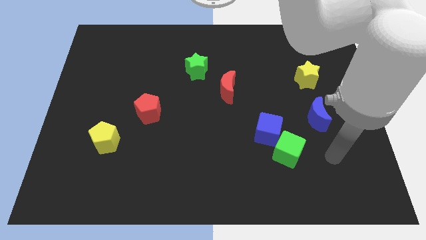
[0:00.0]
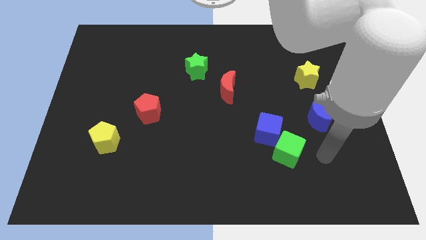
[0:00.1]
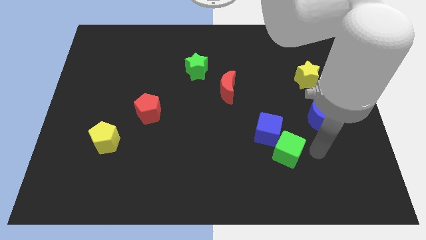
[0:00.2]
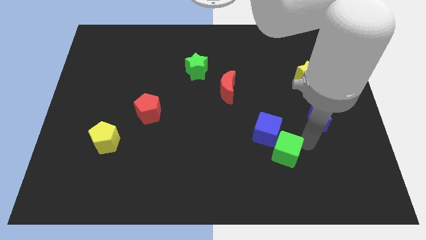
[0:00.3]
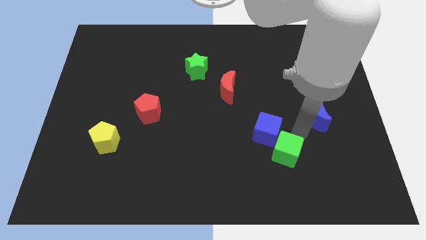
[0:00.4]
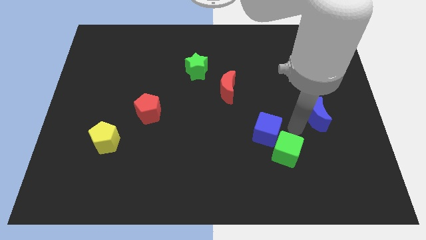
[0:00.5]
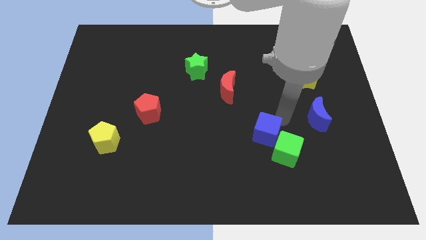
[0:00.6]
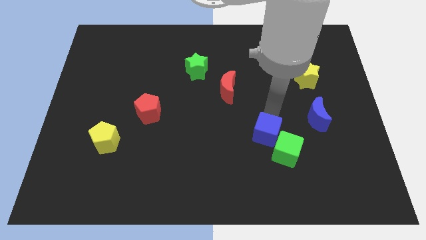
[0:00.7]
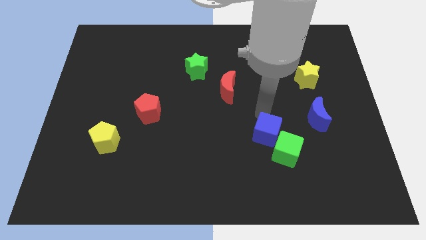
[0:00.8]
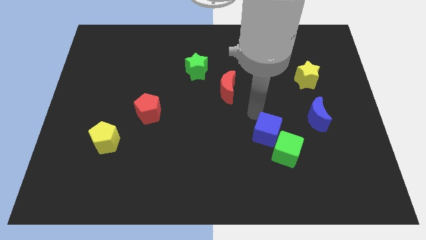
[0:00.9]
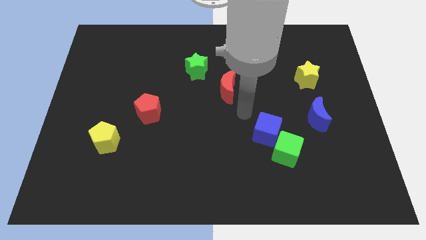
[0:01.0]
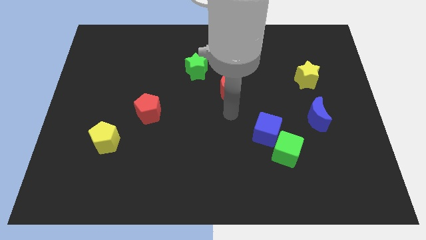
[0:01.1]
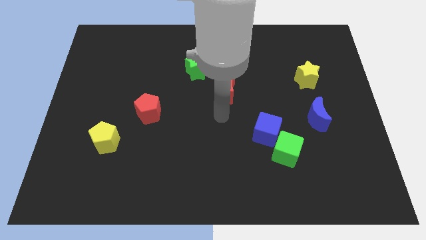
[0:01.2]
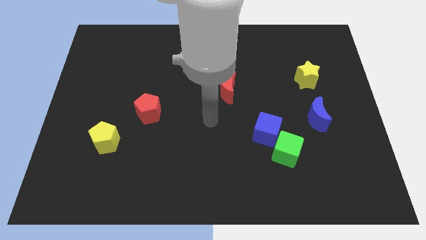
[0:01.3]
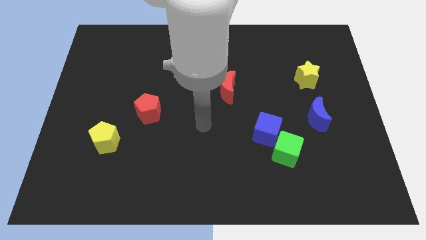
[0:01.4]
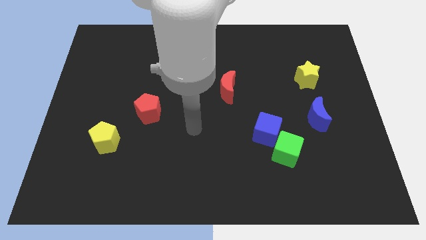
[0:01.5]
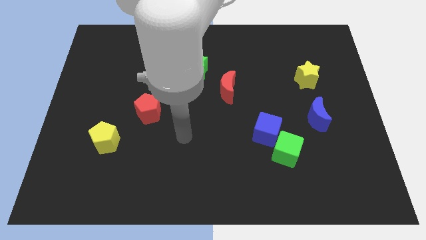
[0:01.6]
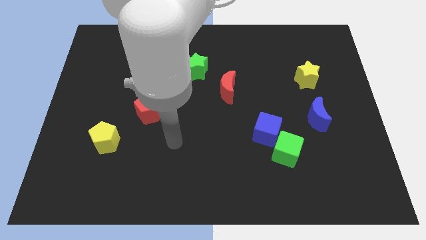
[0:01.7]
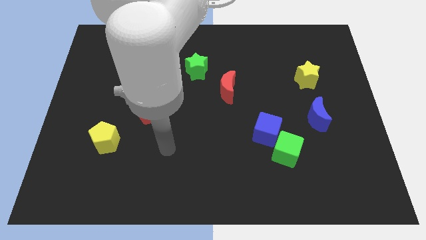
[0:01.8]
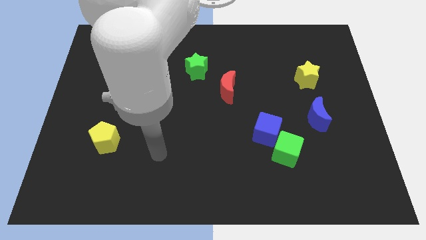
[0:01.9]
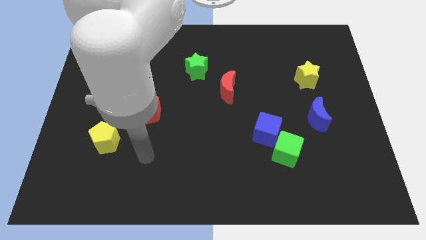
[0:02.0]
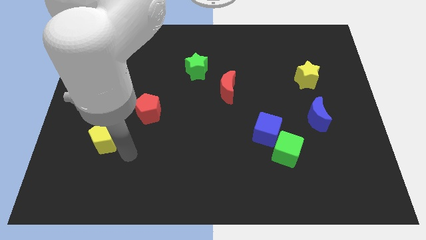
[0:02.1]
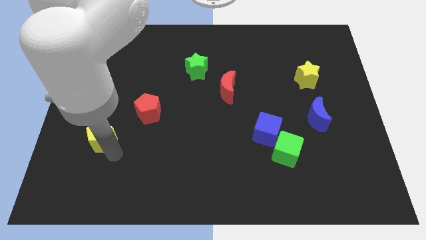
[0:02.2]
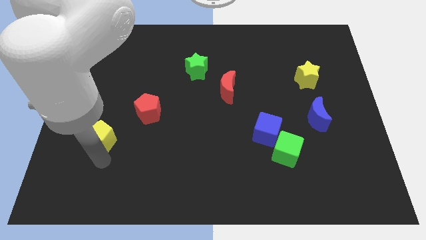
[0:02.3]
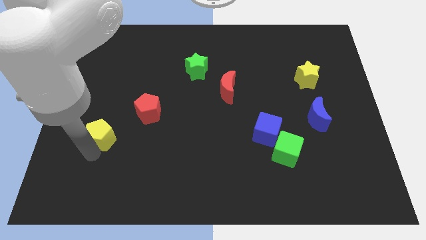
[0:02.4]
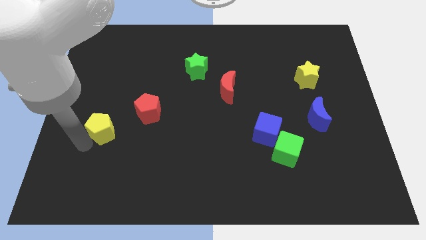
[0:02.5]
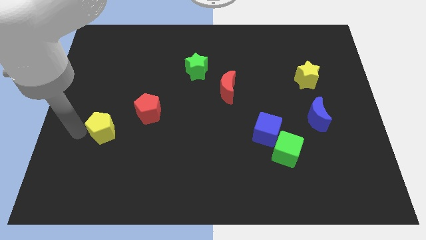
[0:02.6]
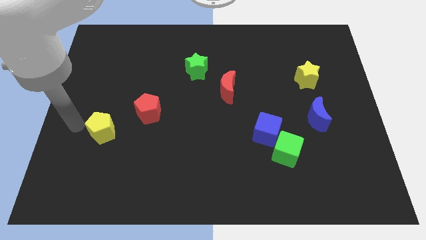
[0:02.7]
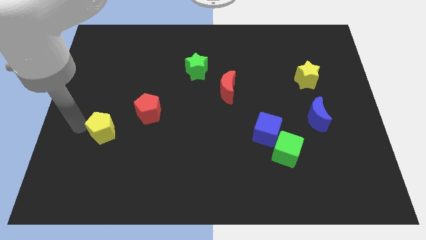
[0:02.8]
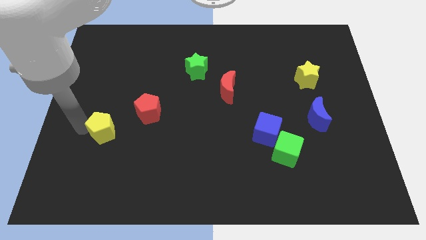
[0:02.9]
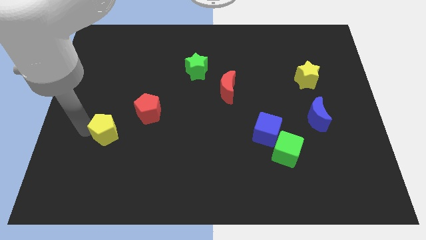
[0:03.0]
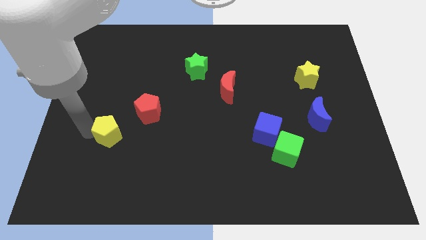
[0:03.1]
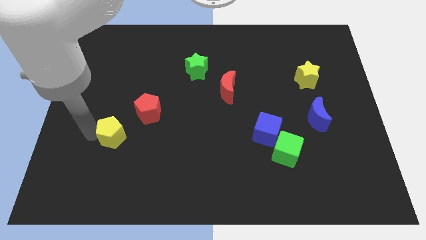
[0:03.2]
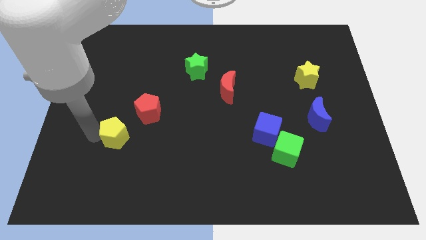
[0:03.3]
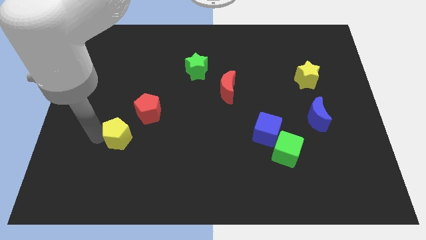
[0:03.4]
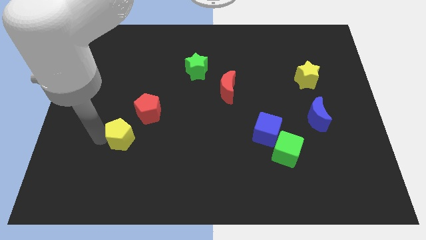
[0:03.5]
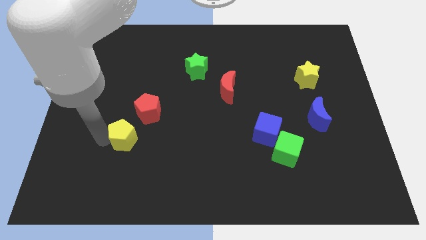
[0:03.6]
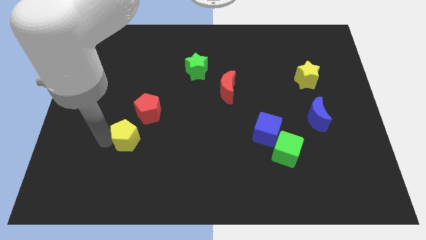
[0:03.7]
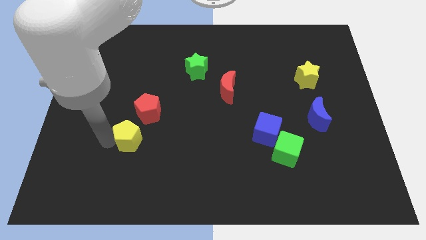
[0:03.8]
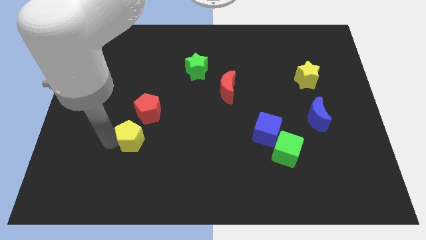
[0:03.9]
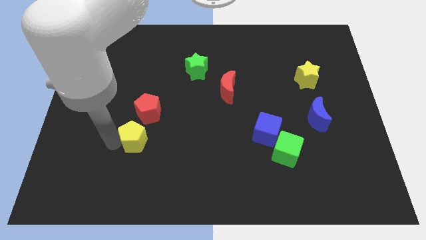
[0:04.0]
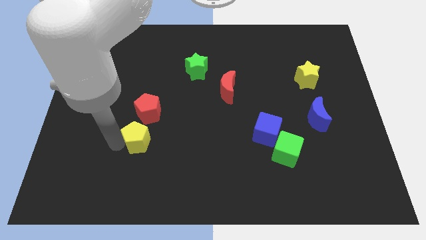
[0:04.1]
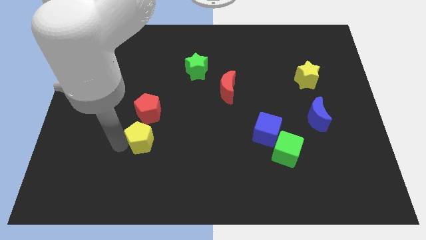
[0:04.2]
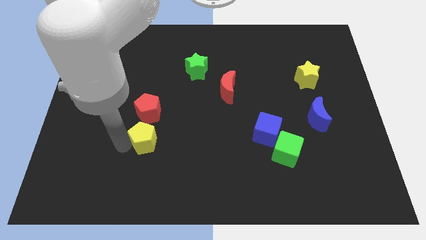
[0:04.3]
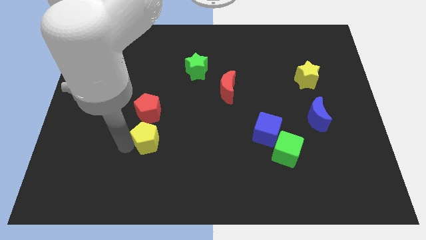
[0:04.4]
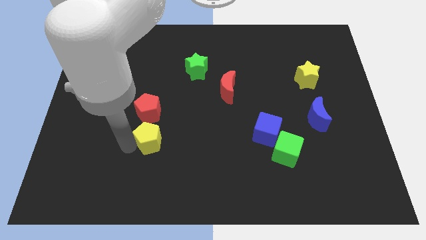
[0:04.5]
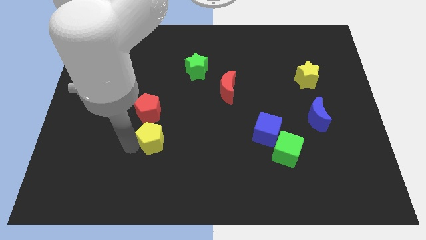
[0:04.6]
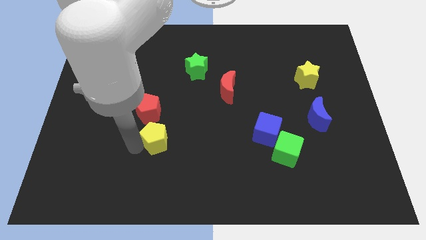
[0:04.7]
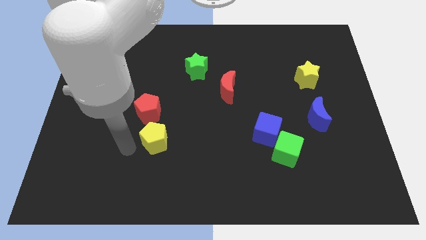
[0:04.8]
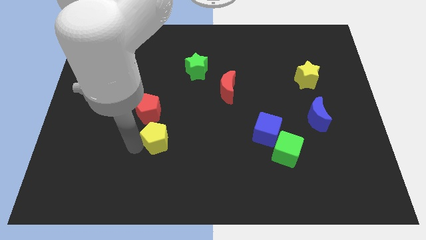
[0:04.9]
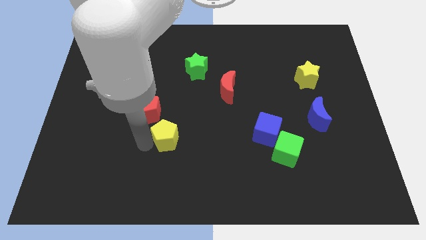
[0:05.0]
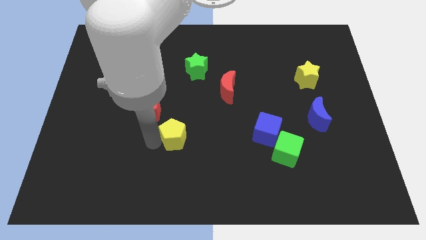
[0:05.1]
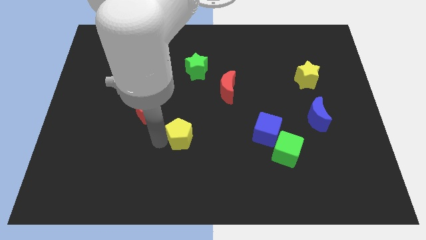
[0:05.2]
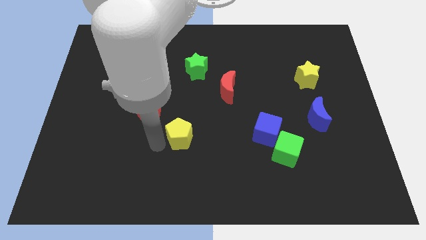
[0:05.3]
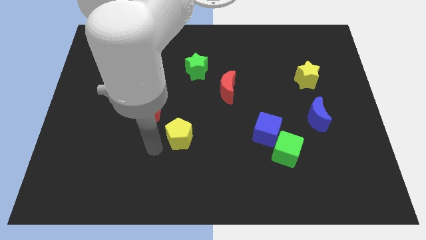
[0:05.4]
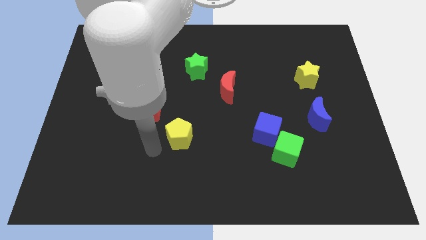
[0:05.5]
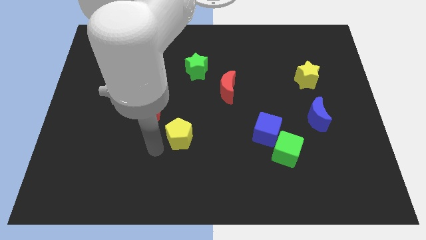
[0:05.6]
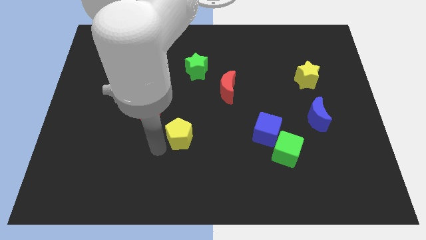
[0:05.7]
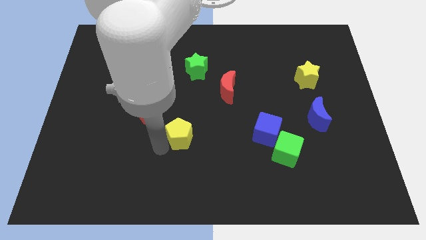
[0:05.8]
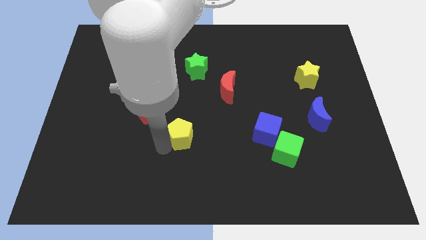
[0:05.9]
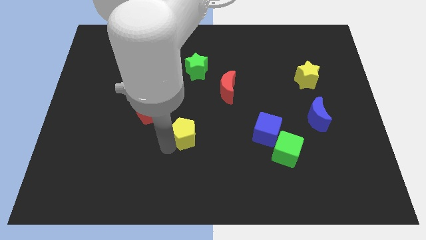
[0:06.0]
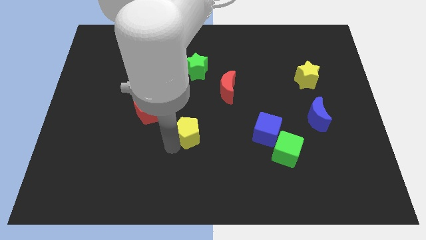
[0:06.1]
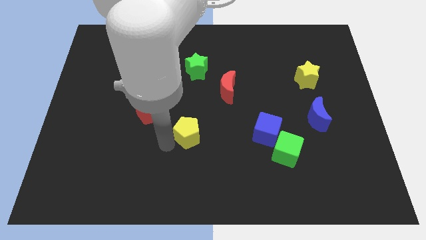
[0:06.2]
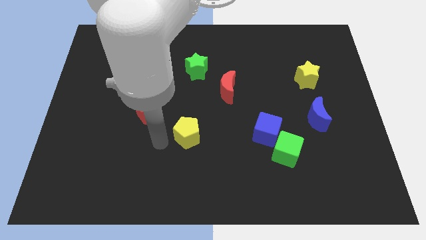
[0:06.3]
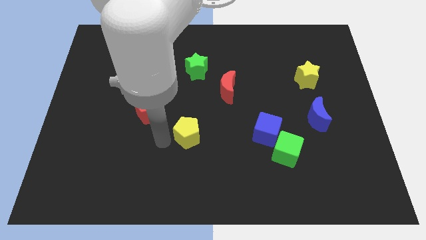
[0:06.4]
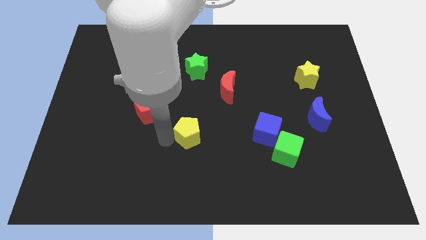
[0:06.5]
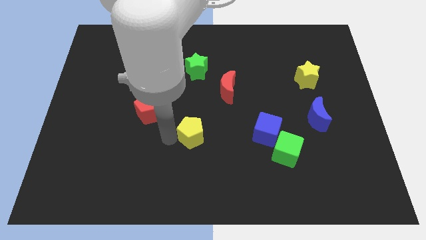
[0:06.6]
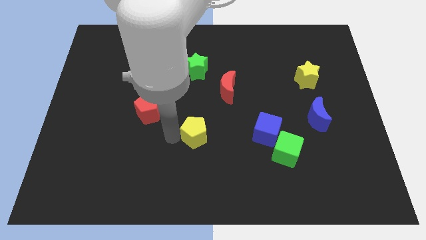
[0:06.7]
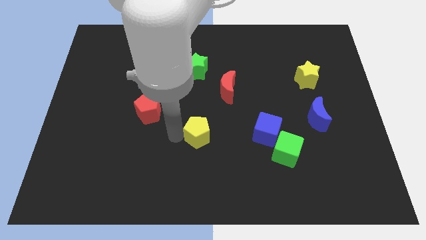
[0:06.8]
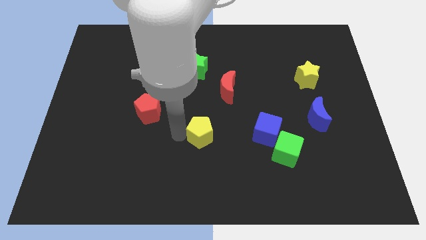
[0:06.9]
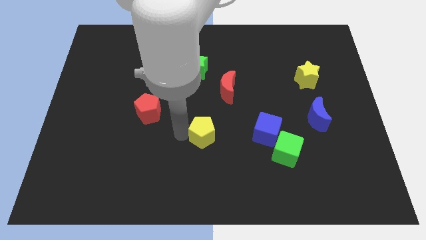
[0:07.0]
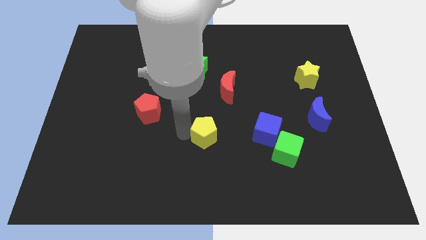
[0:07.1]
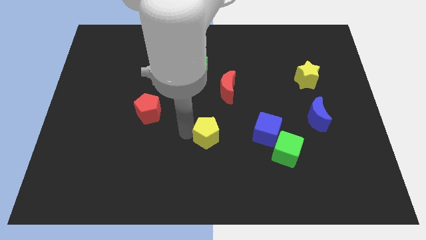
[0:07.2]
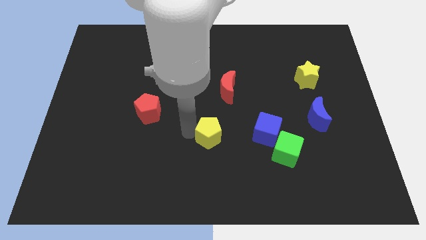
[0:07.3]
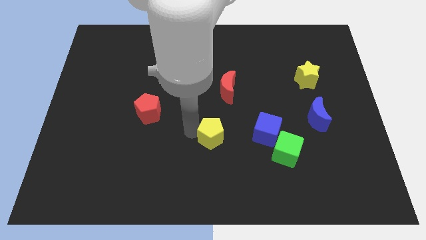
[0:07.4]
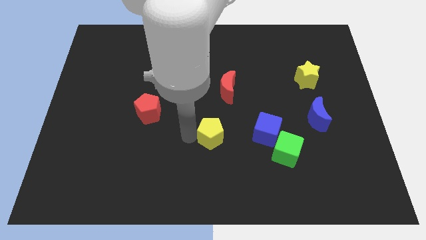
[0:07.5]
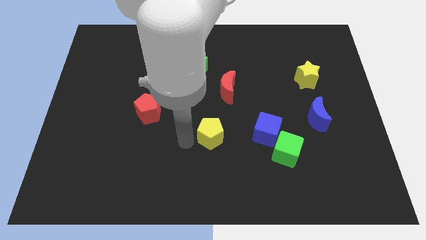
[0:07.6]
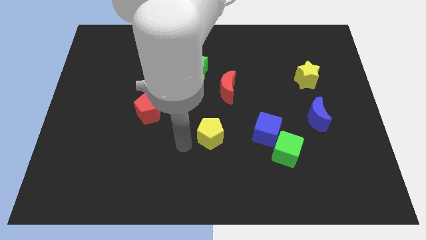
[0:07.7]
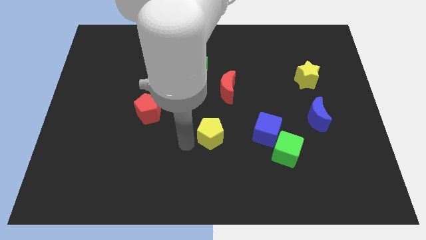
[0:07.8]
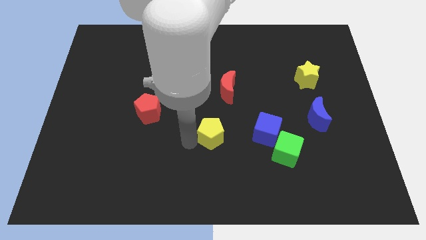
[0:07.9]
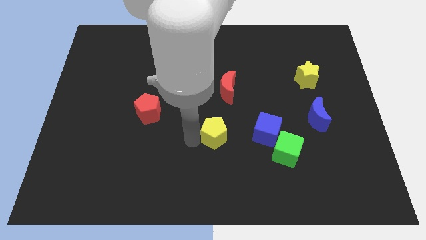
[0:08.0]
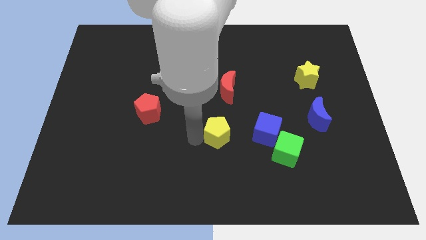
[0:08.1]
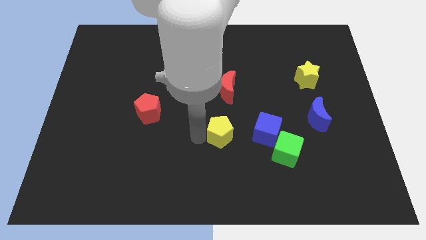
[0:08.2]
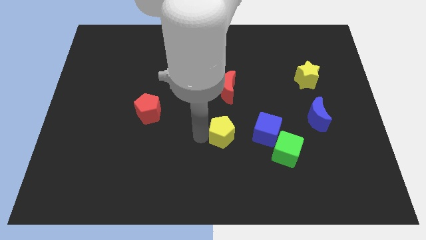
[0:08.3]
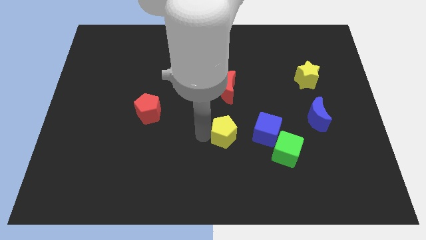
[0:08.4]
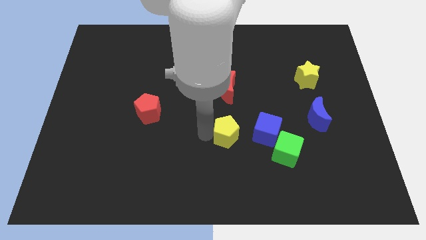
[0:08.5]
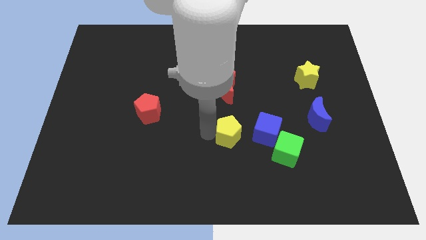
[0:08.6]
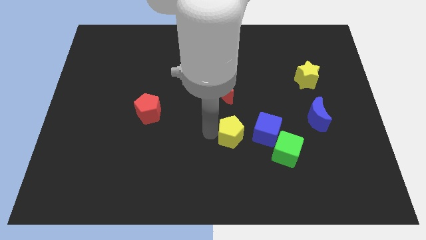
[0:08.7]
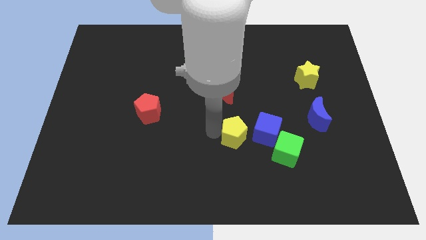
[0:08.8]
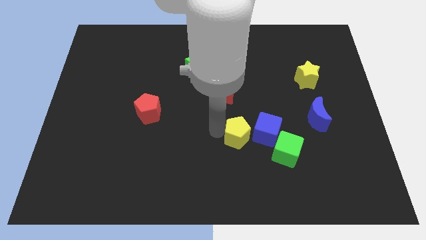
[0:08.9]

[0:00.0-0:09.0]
move the yellow pentagon diagonally up and to the left of the green cube
